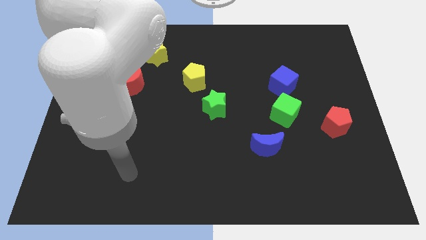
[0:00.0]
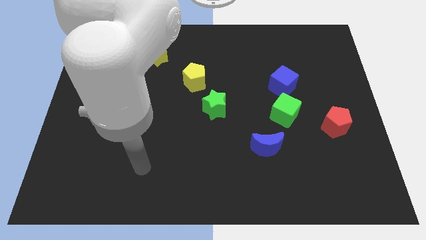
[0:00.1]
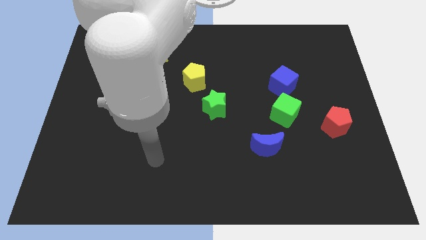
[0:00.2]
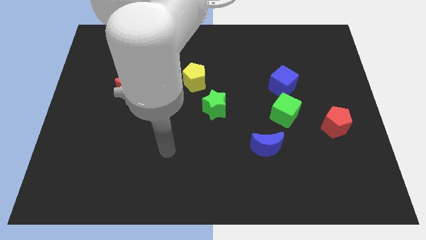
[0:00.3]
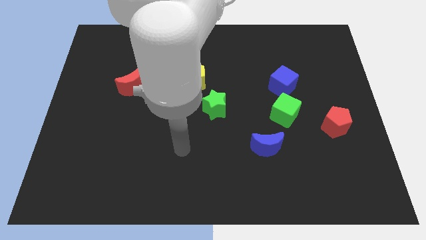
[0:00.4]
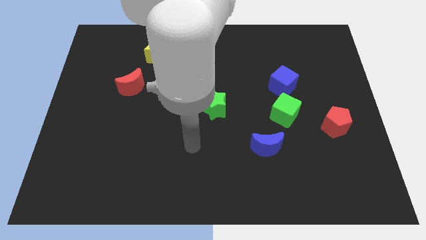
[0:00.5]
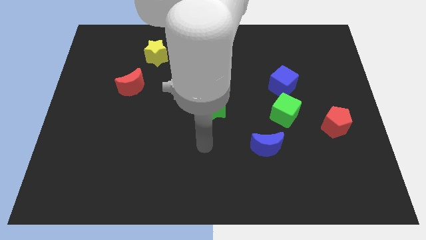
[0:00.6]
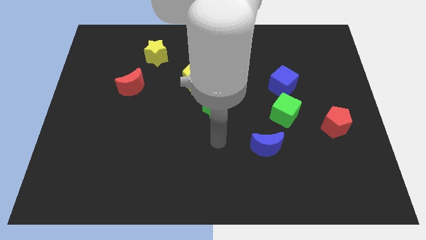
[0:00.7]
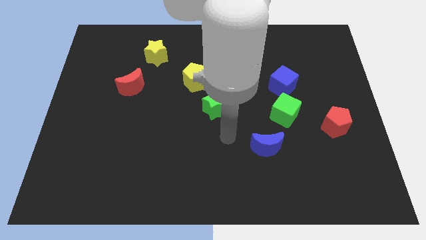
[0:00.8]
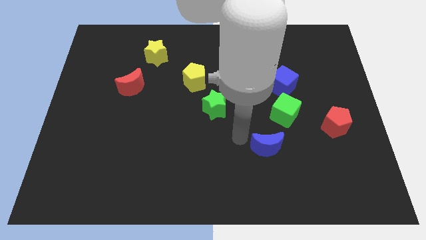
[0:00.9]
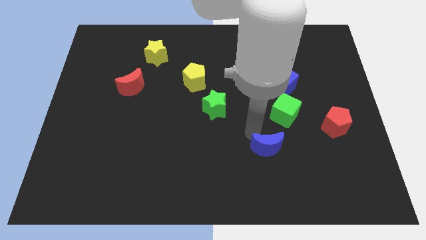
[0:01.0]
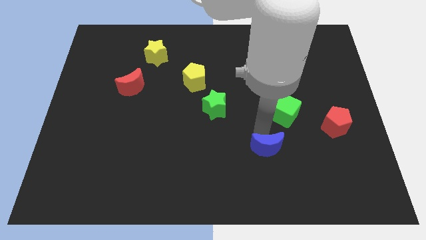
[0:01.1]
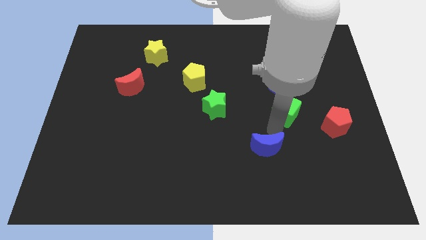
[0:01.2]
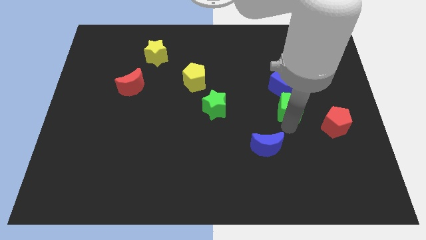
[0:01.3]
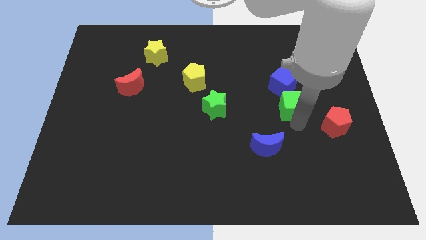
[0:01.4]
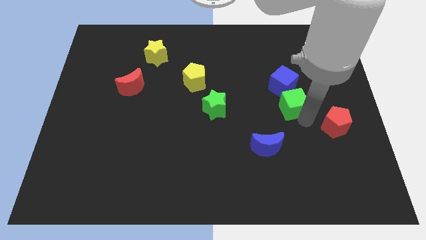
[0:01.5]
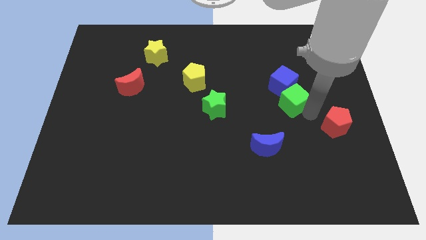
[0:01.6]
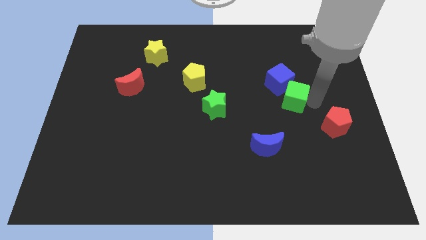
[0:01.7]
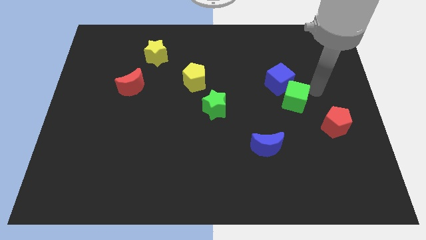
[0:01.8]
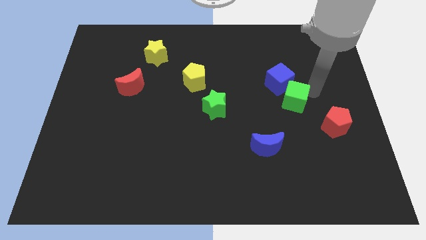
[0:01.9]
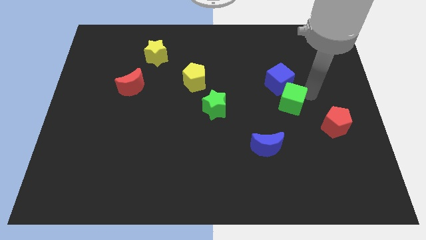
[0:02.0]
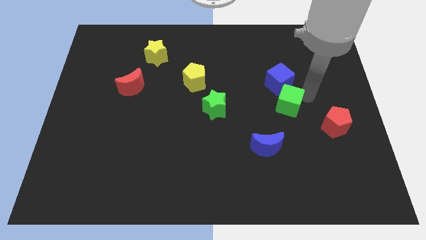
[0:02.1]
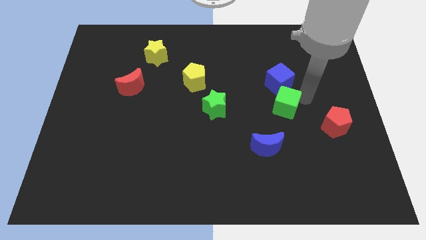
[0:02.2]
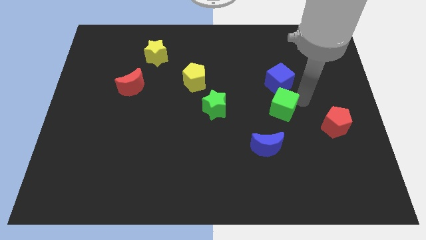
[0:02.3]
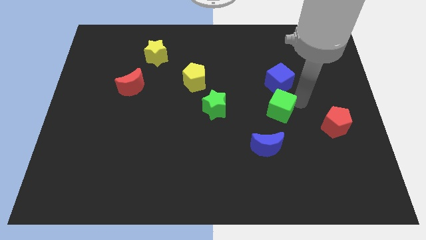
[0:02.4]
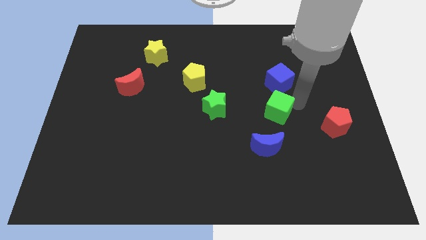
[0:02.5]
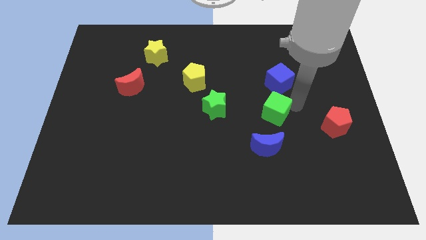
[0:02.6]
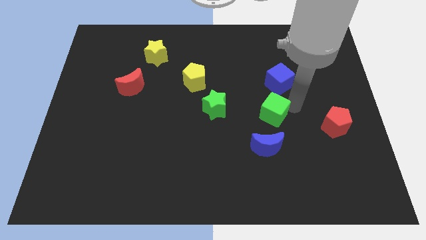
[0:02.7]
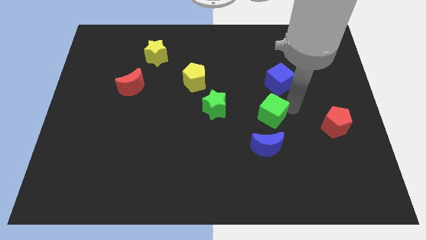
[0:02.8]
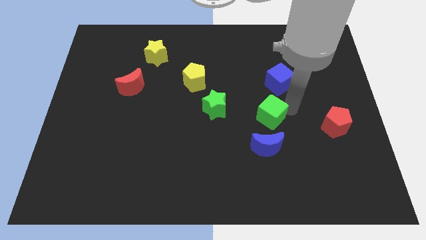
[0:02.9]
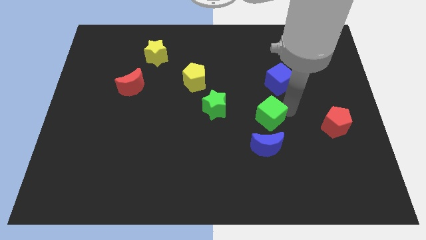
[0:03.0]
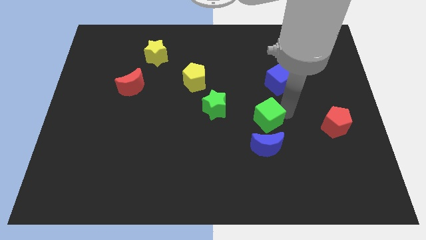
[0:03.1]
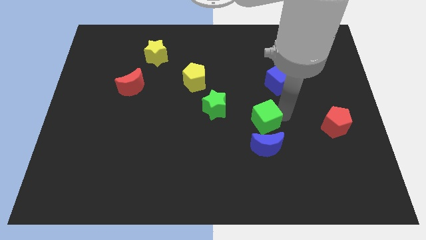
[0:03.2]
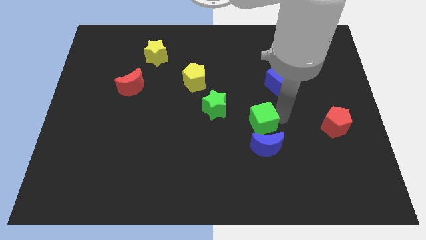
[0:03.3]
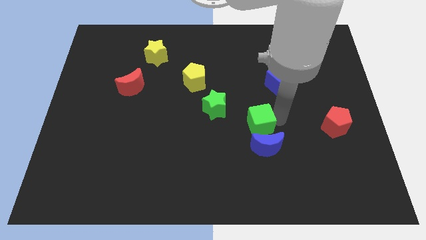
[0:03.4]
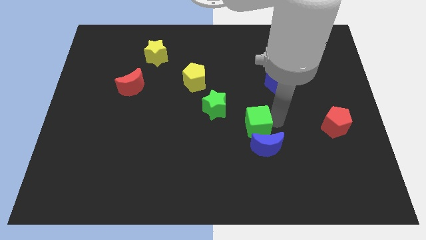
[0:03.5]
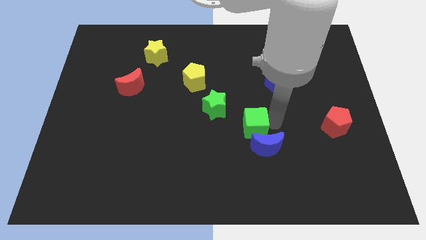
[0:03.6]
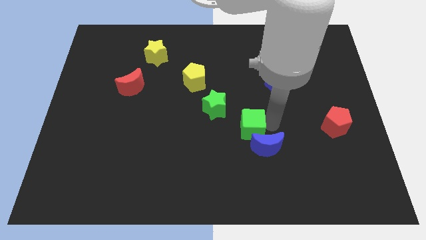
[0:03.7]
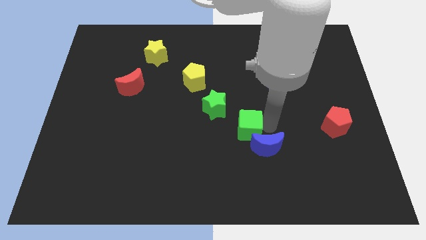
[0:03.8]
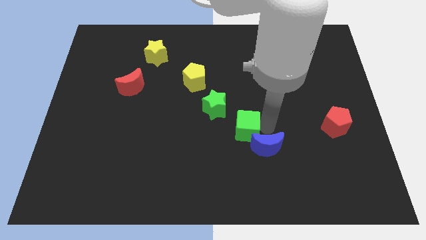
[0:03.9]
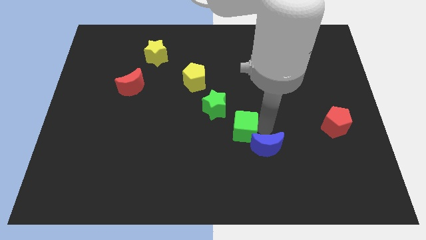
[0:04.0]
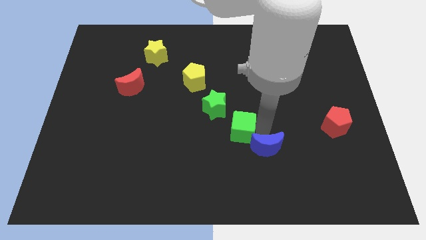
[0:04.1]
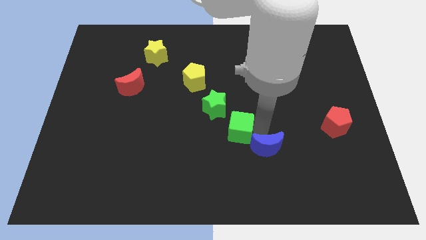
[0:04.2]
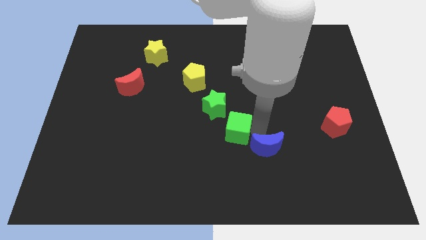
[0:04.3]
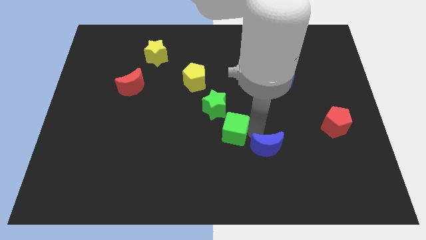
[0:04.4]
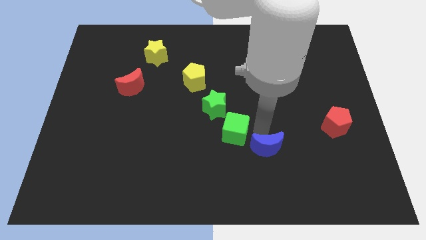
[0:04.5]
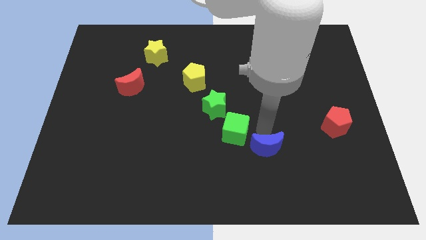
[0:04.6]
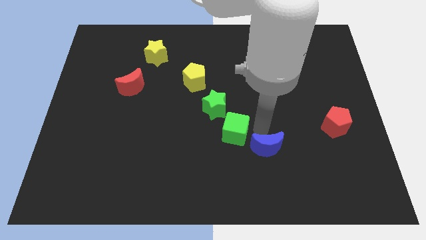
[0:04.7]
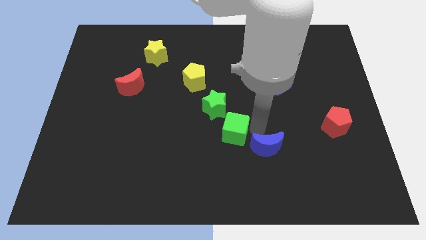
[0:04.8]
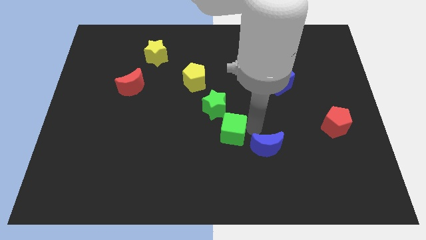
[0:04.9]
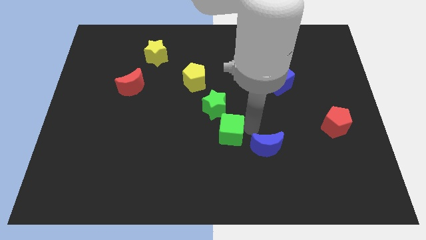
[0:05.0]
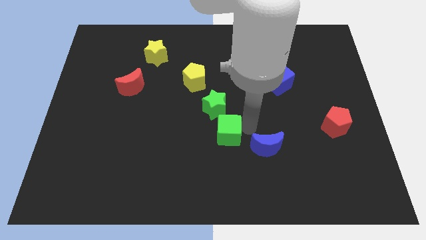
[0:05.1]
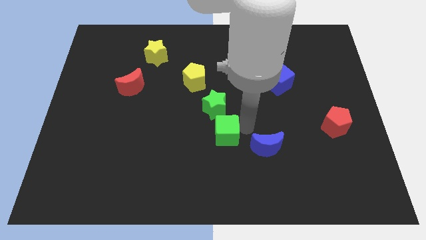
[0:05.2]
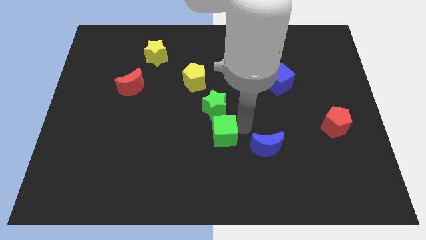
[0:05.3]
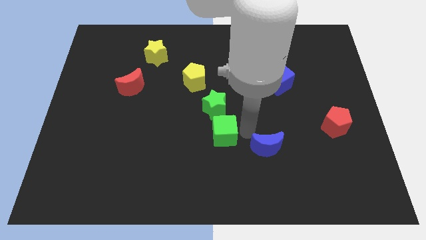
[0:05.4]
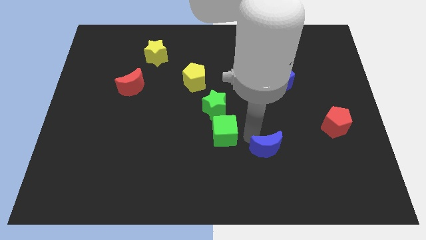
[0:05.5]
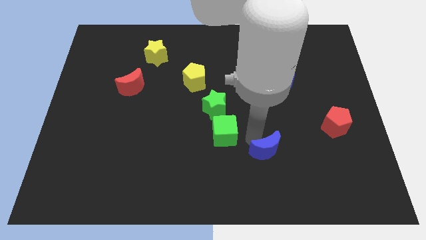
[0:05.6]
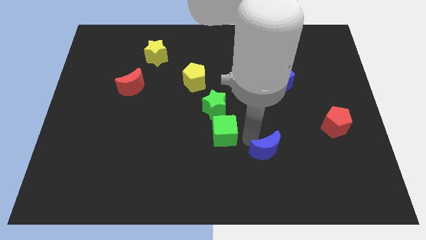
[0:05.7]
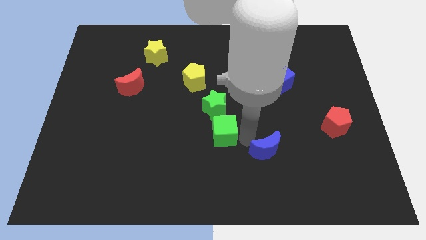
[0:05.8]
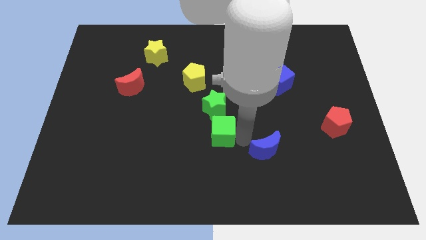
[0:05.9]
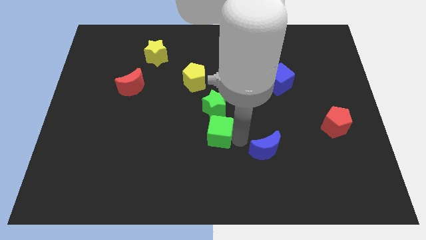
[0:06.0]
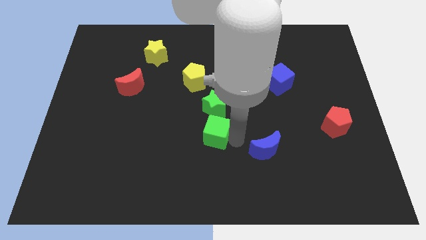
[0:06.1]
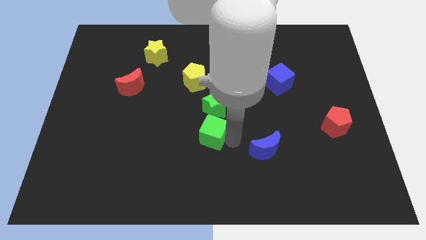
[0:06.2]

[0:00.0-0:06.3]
push the green cube to the bottom left side of the green star

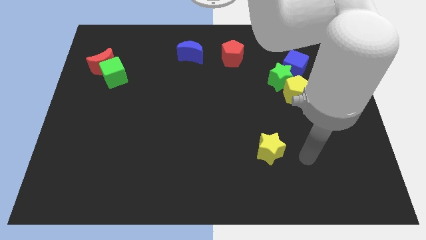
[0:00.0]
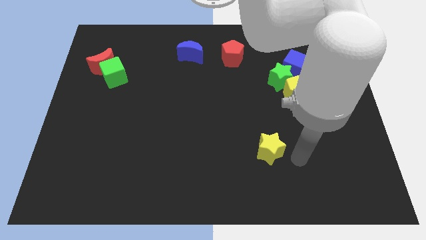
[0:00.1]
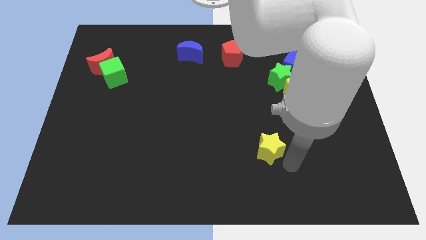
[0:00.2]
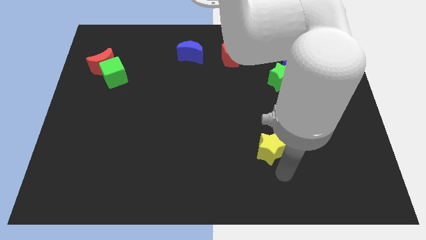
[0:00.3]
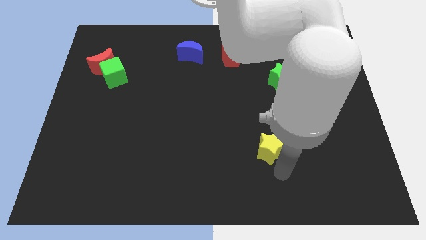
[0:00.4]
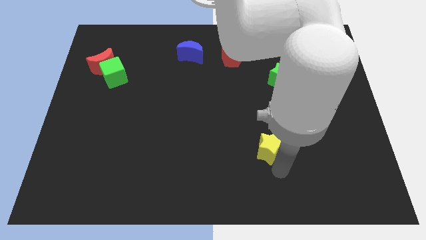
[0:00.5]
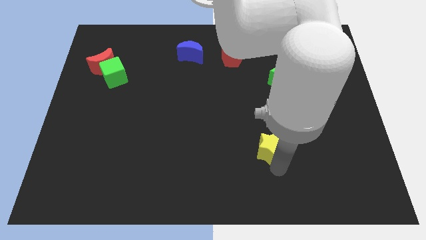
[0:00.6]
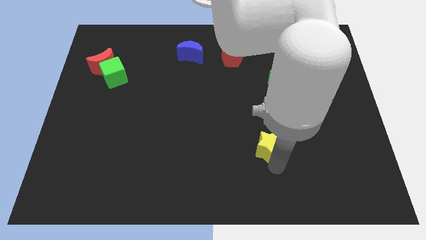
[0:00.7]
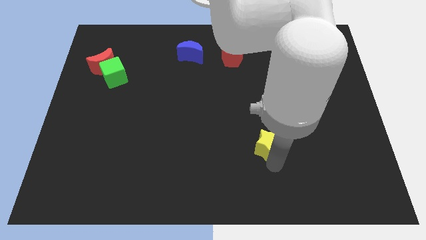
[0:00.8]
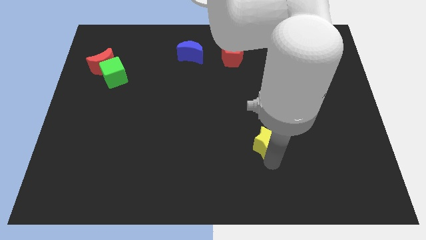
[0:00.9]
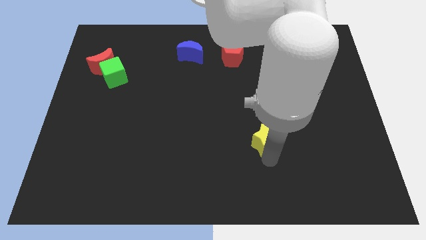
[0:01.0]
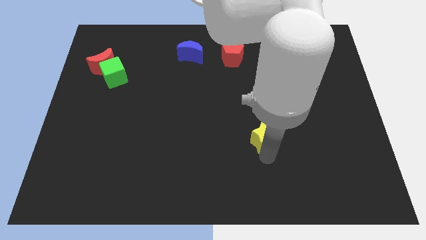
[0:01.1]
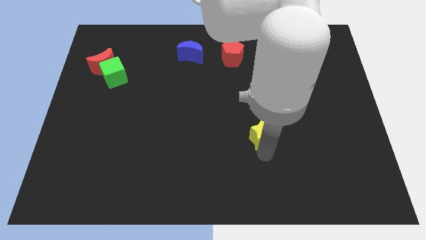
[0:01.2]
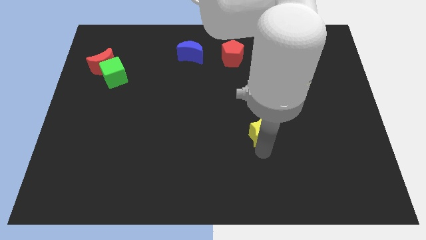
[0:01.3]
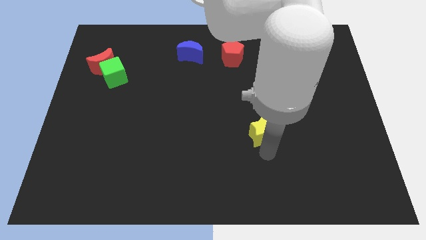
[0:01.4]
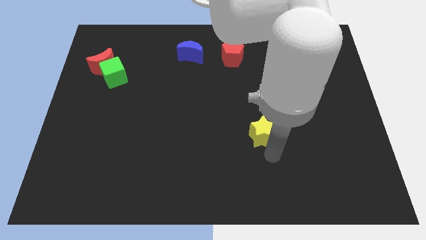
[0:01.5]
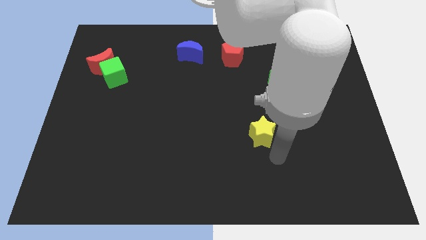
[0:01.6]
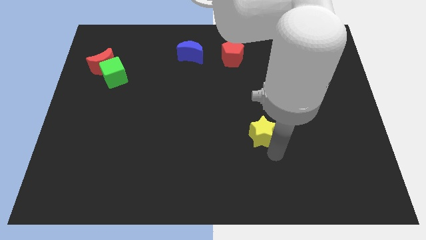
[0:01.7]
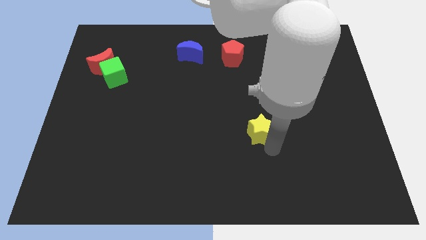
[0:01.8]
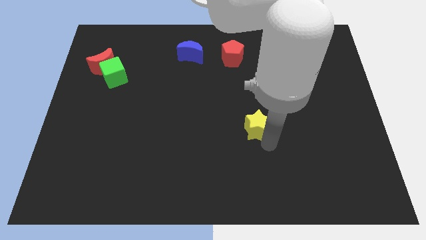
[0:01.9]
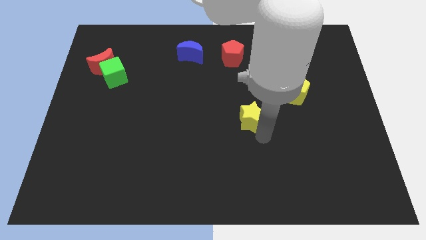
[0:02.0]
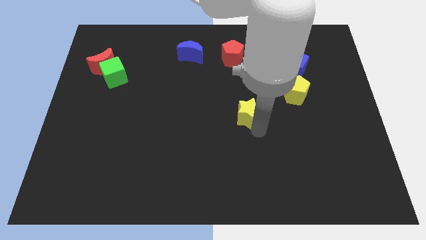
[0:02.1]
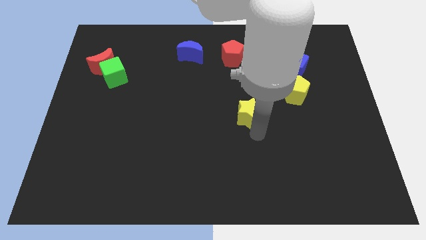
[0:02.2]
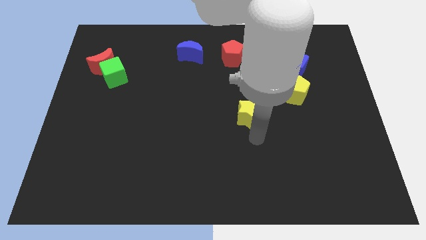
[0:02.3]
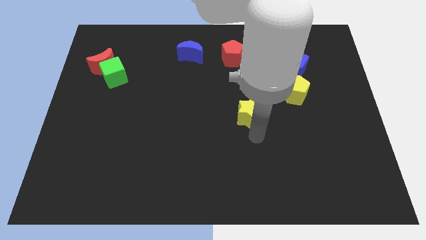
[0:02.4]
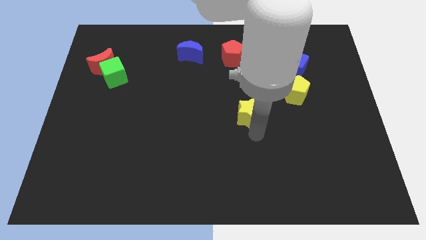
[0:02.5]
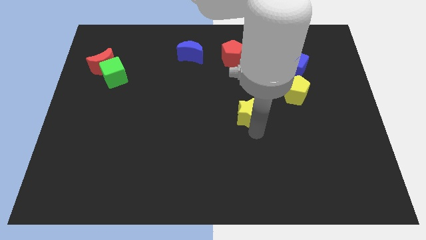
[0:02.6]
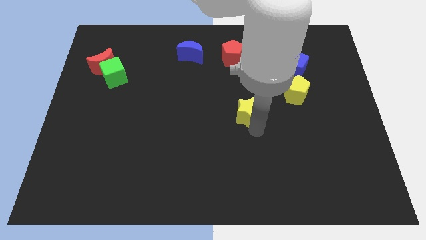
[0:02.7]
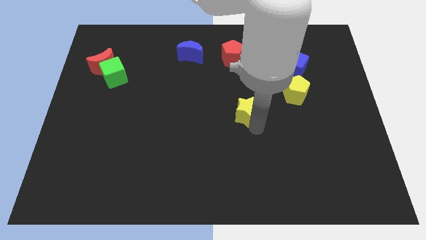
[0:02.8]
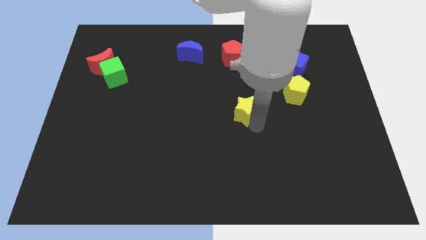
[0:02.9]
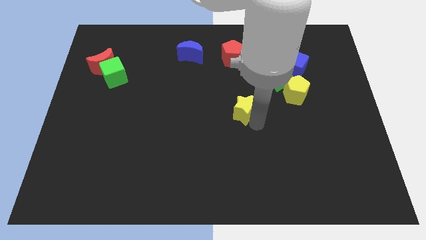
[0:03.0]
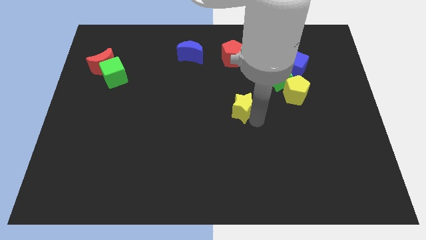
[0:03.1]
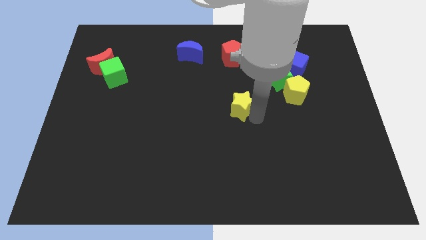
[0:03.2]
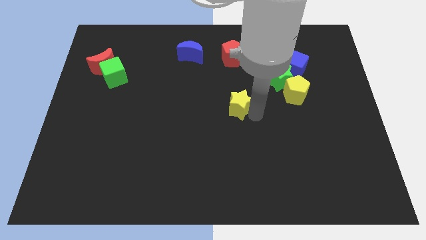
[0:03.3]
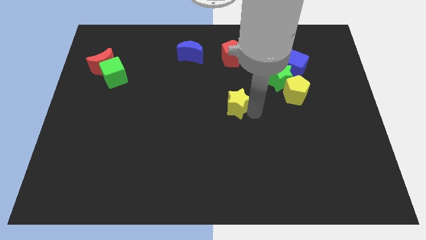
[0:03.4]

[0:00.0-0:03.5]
put the yellow star below the red pentagon
